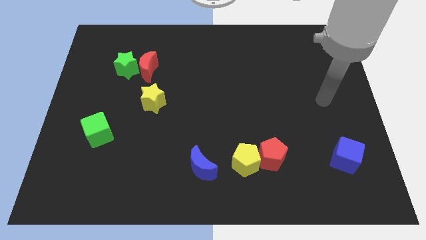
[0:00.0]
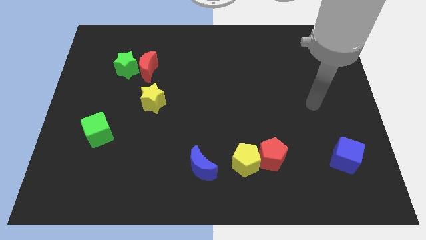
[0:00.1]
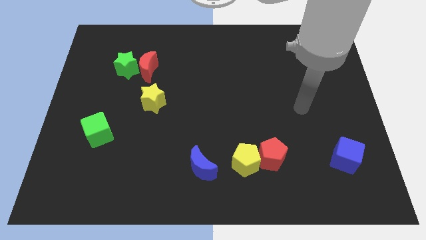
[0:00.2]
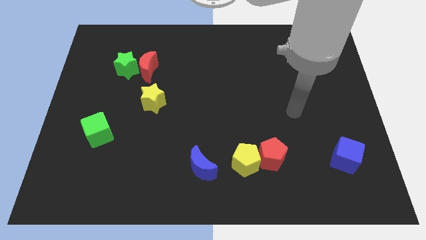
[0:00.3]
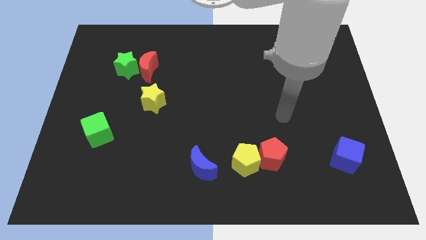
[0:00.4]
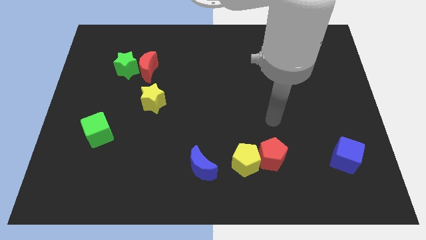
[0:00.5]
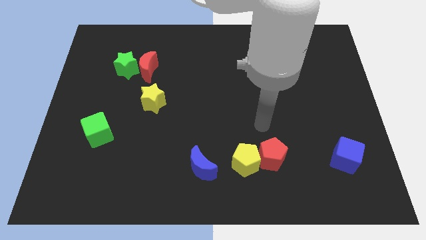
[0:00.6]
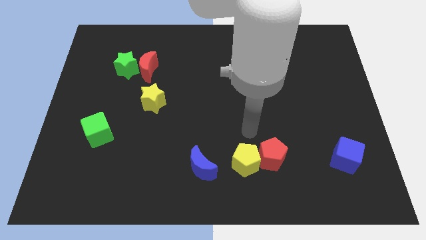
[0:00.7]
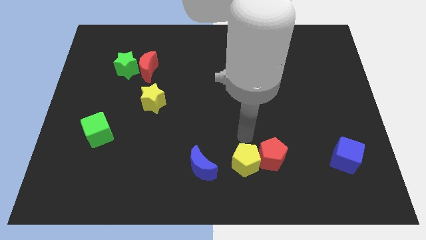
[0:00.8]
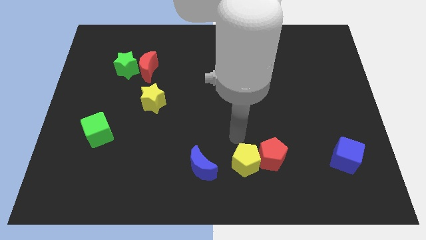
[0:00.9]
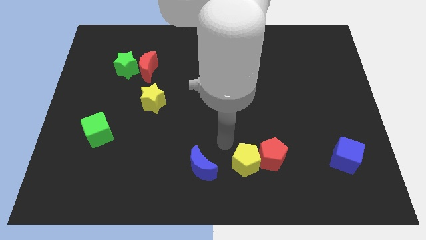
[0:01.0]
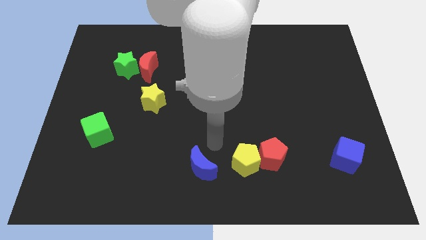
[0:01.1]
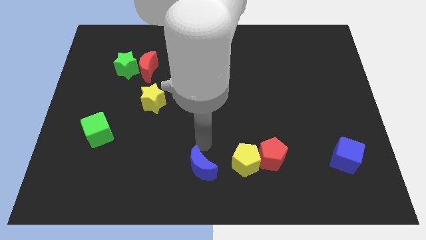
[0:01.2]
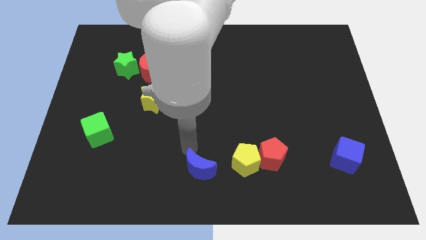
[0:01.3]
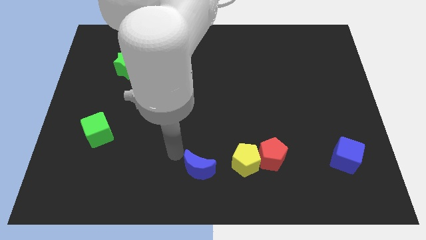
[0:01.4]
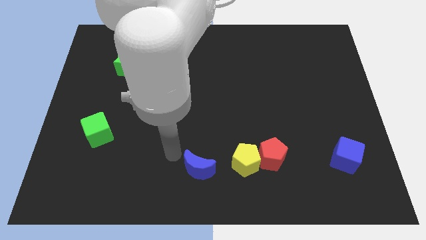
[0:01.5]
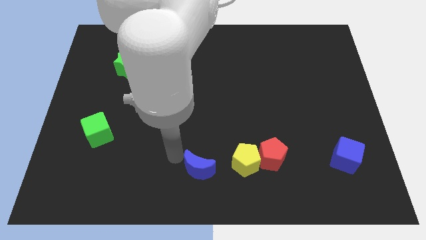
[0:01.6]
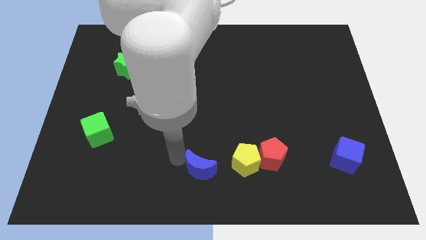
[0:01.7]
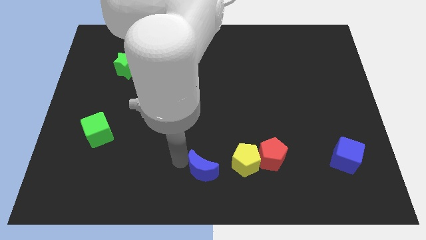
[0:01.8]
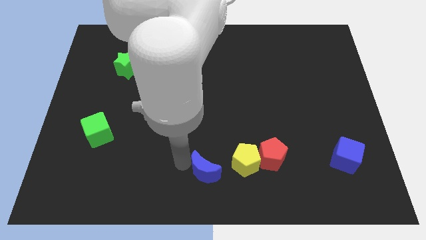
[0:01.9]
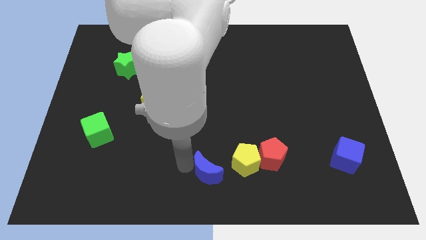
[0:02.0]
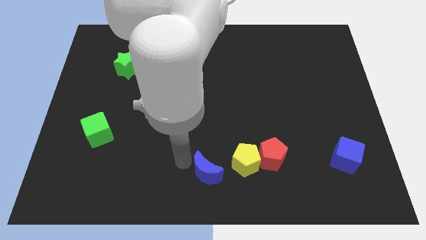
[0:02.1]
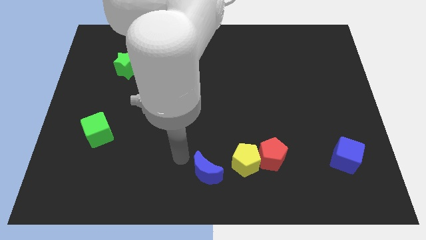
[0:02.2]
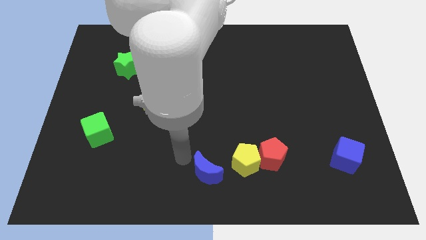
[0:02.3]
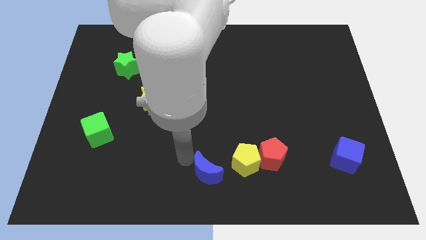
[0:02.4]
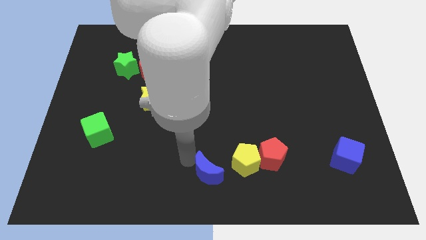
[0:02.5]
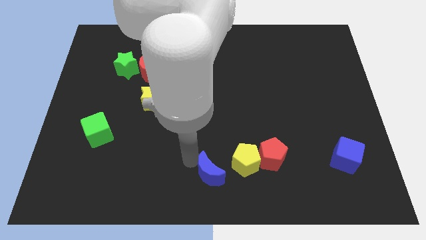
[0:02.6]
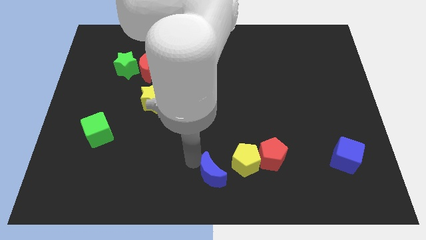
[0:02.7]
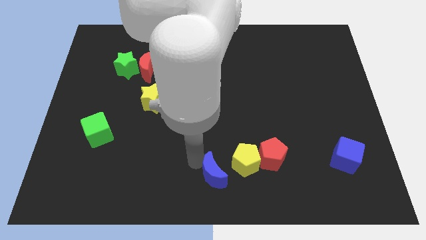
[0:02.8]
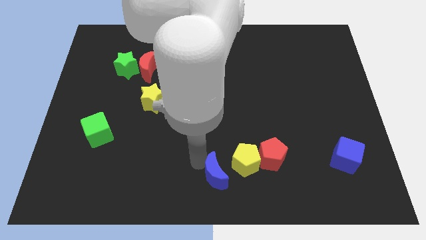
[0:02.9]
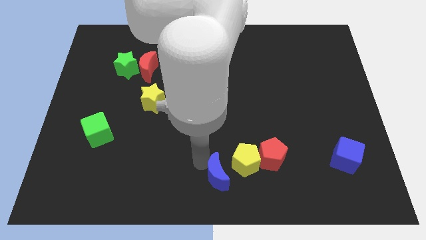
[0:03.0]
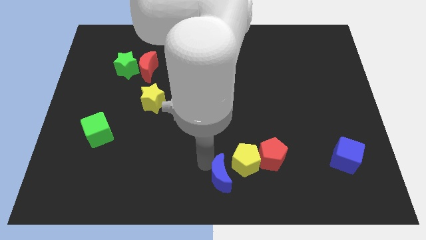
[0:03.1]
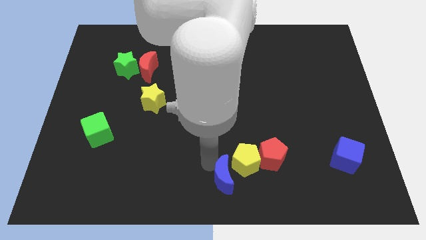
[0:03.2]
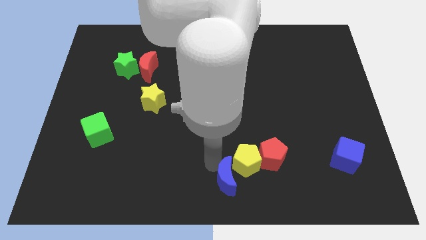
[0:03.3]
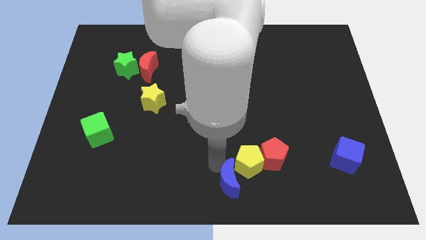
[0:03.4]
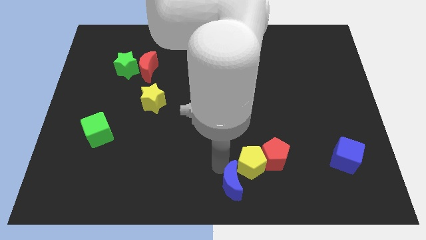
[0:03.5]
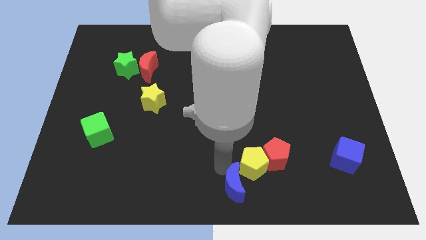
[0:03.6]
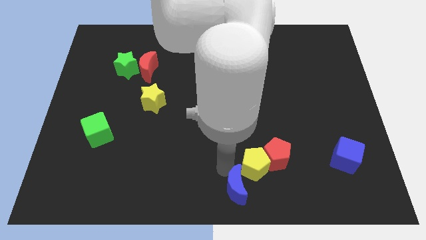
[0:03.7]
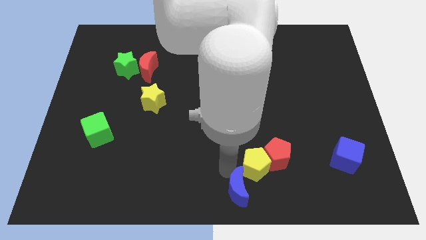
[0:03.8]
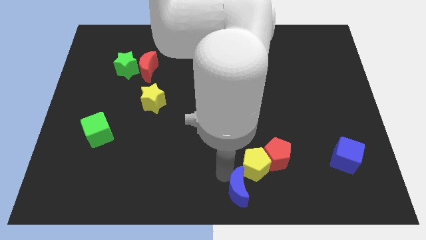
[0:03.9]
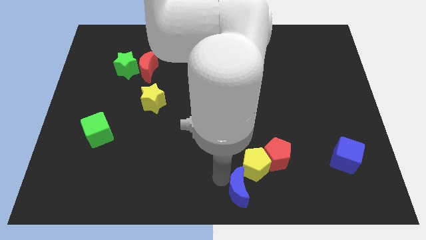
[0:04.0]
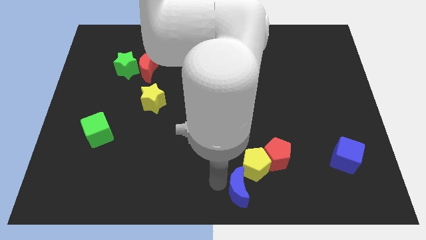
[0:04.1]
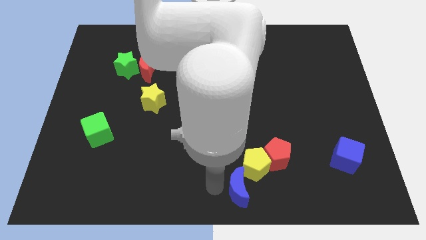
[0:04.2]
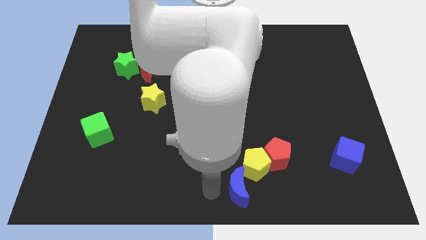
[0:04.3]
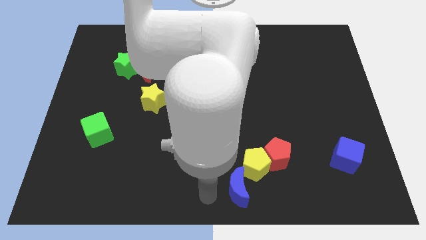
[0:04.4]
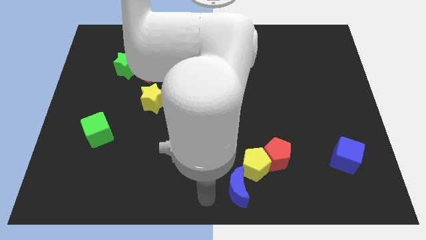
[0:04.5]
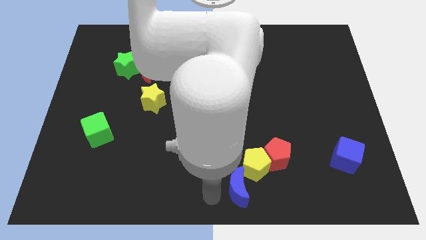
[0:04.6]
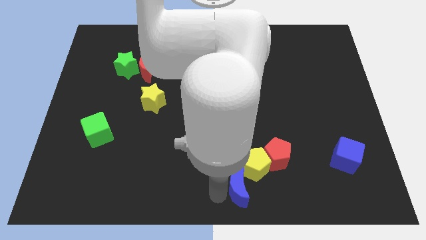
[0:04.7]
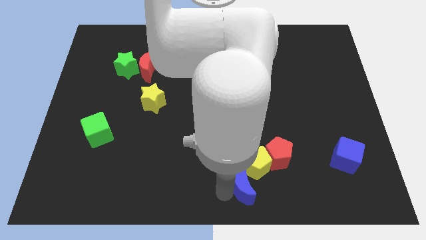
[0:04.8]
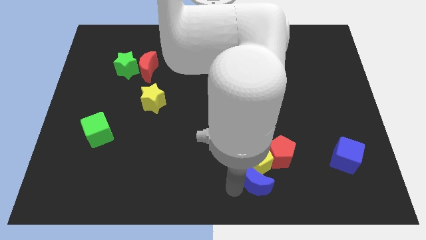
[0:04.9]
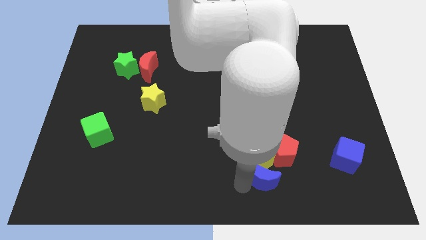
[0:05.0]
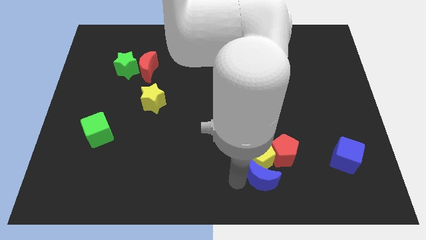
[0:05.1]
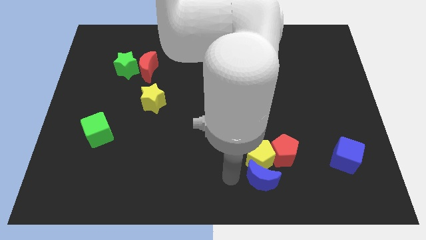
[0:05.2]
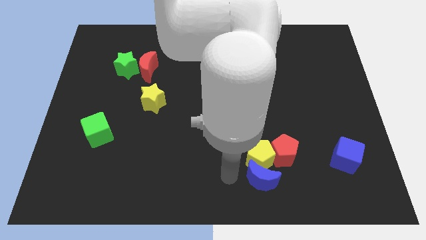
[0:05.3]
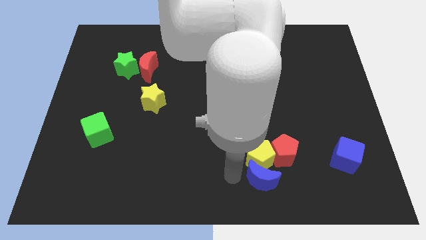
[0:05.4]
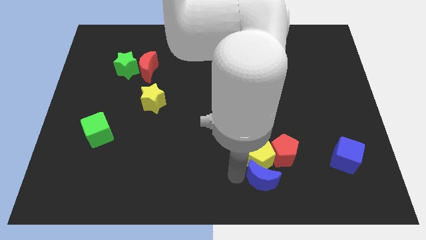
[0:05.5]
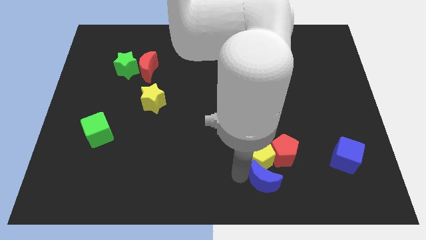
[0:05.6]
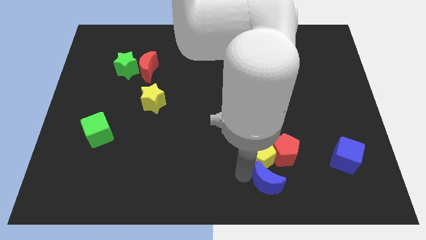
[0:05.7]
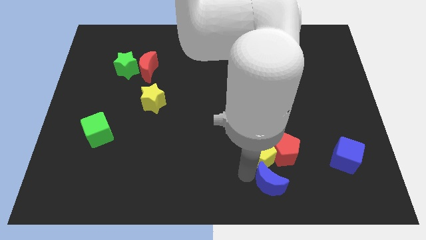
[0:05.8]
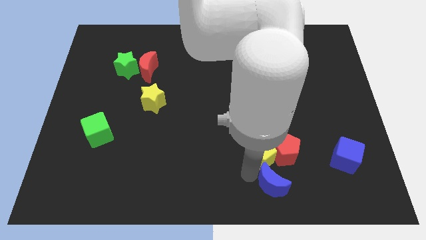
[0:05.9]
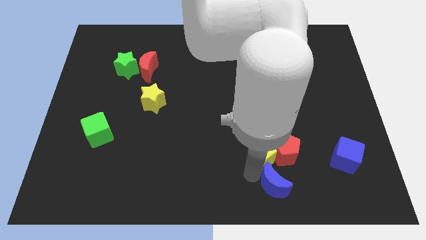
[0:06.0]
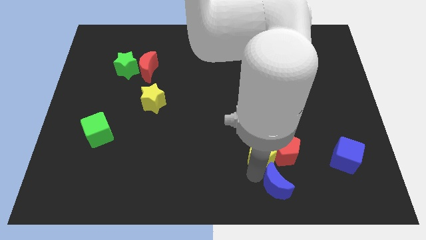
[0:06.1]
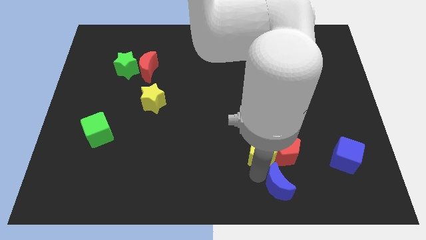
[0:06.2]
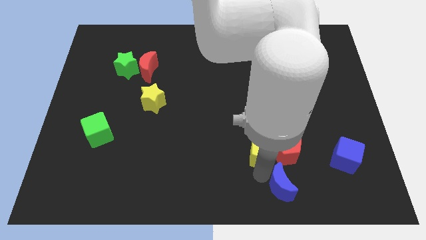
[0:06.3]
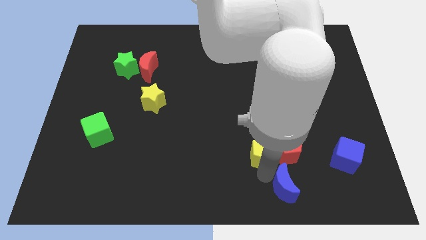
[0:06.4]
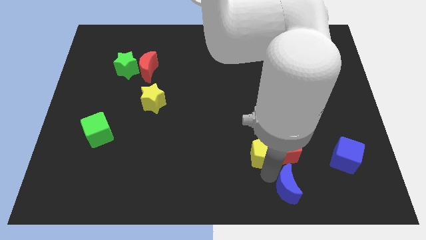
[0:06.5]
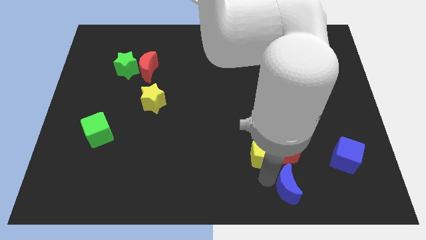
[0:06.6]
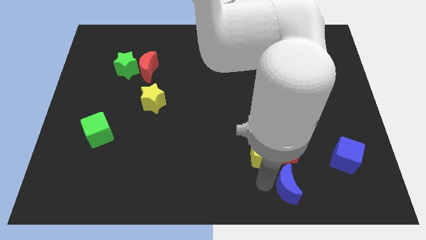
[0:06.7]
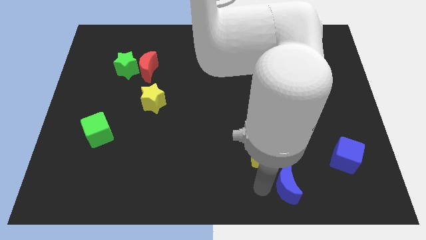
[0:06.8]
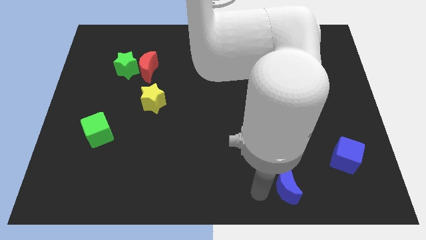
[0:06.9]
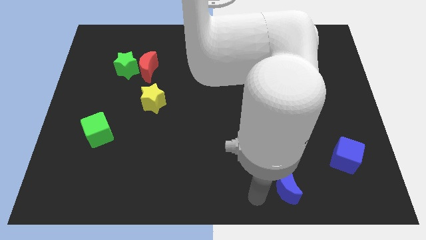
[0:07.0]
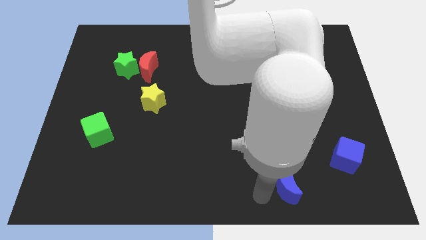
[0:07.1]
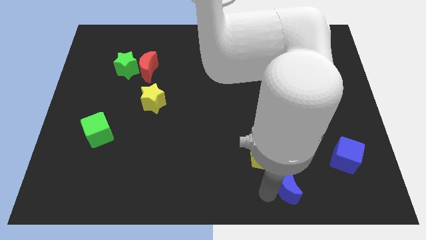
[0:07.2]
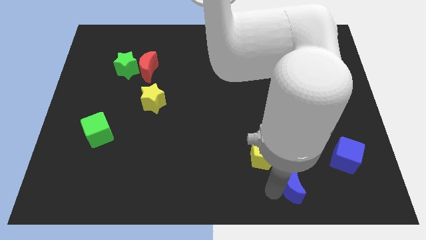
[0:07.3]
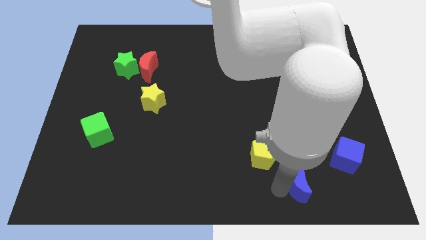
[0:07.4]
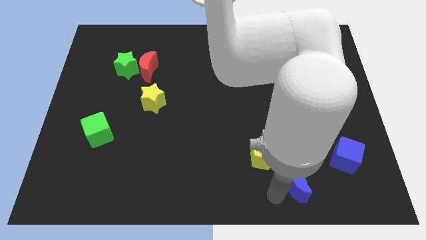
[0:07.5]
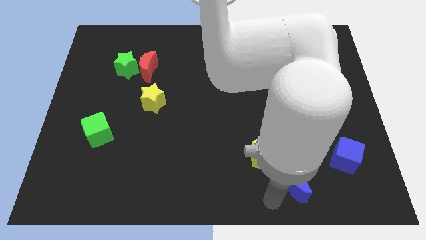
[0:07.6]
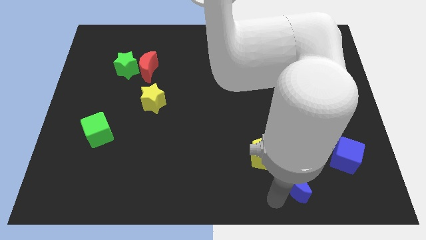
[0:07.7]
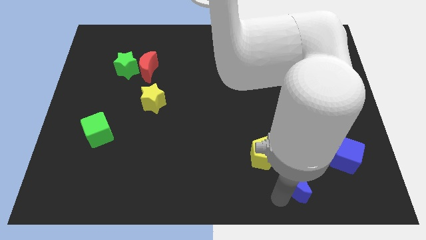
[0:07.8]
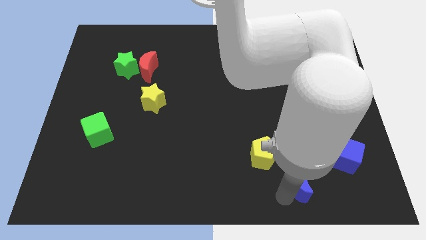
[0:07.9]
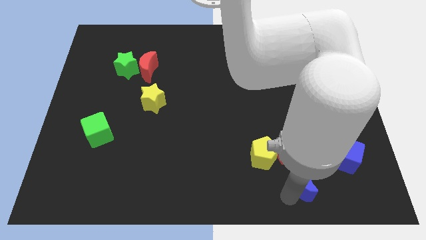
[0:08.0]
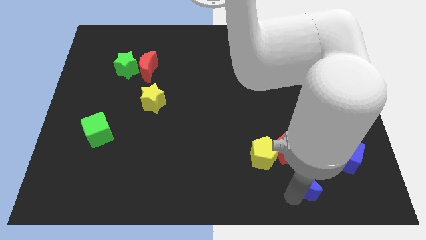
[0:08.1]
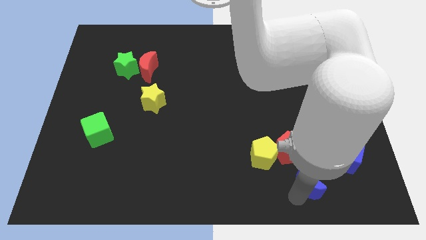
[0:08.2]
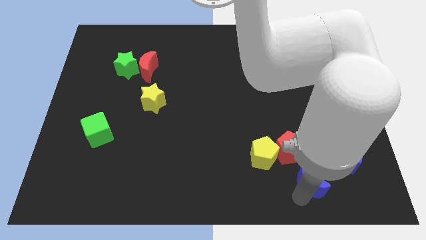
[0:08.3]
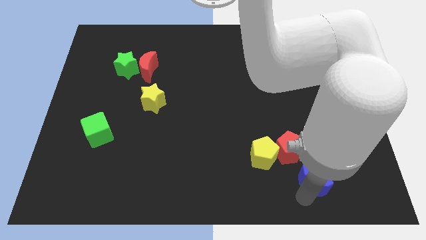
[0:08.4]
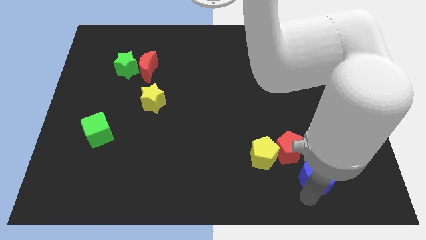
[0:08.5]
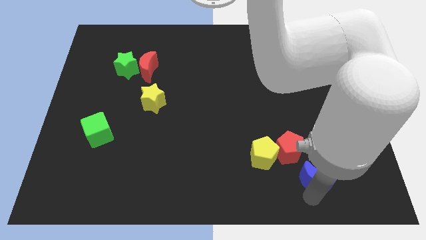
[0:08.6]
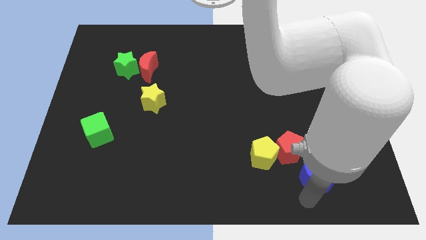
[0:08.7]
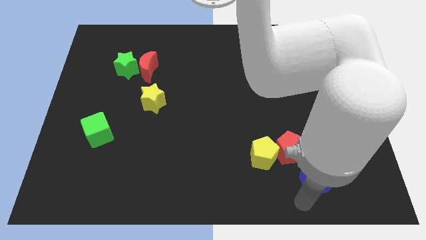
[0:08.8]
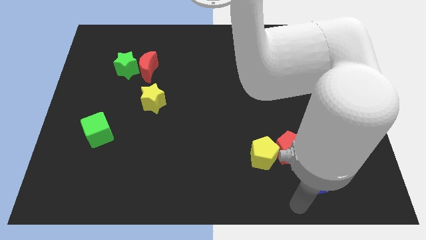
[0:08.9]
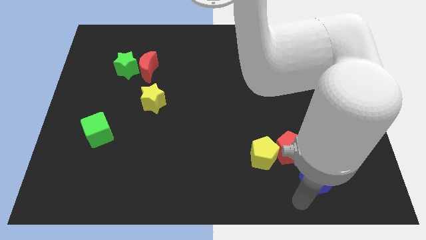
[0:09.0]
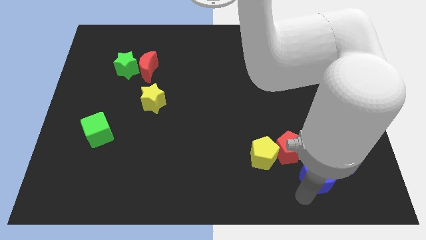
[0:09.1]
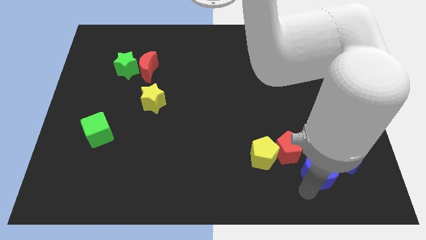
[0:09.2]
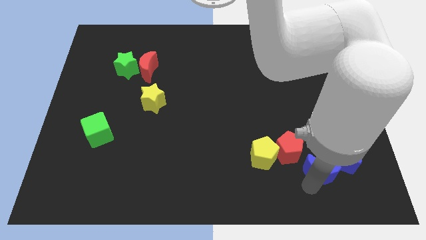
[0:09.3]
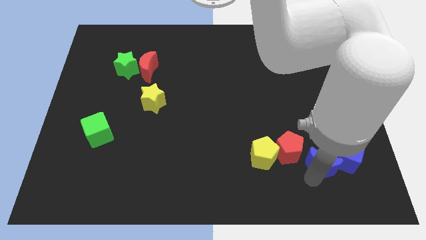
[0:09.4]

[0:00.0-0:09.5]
put the blue moon close to the blue cube
